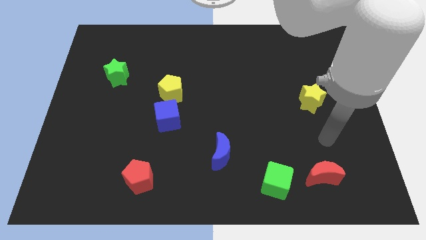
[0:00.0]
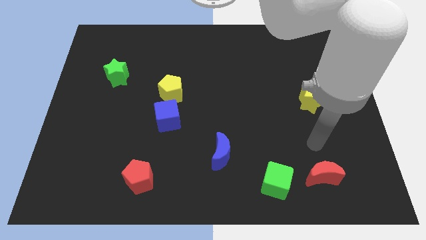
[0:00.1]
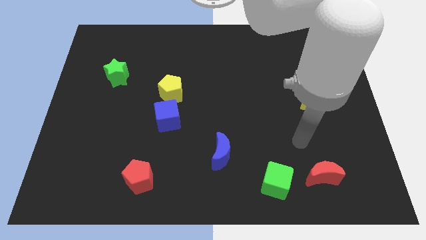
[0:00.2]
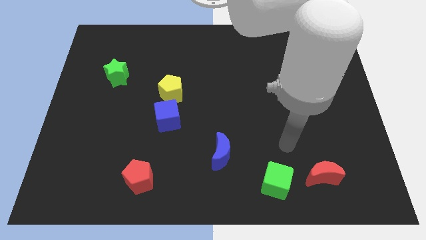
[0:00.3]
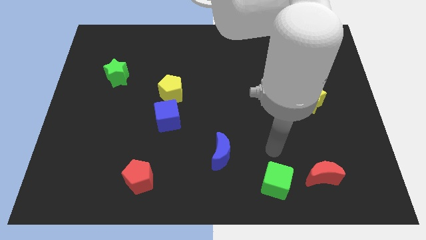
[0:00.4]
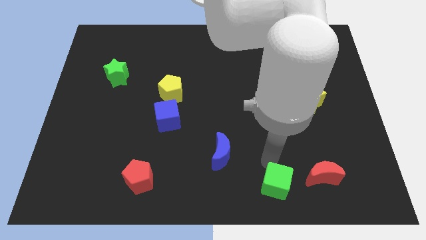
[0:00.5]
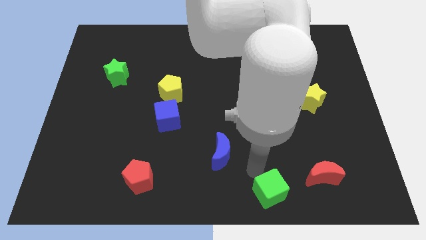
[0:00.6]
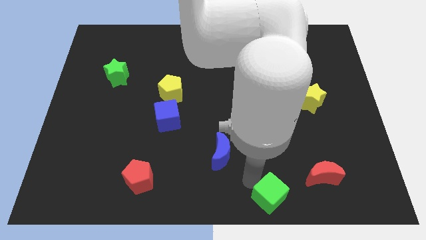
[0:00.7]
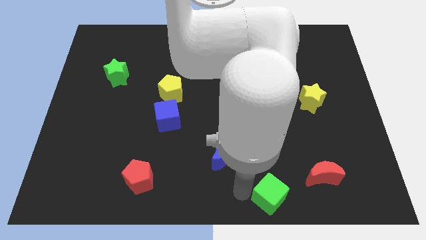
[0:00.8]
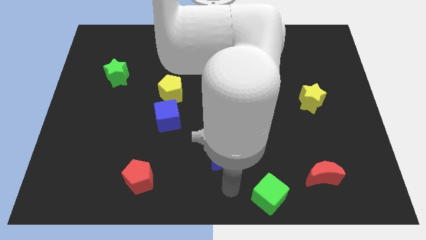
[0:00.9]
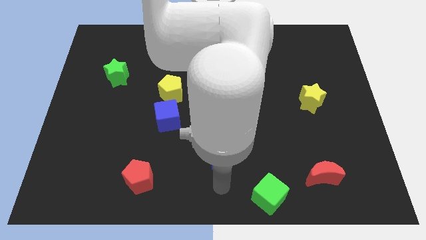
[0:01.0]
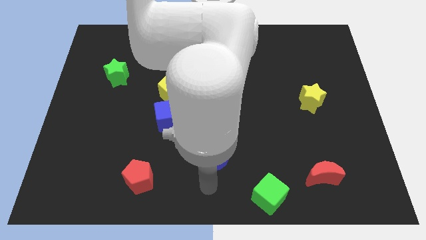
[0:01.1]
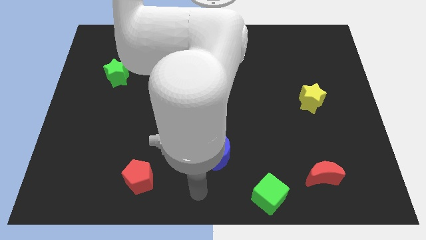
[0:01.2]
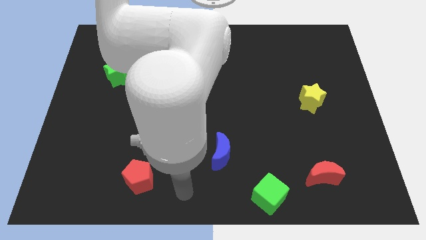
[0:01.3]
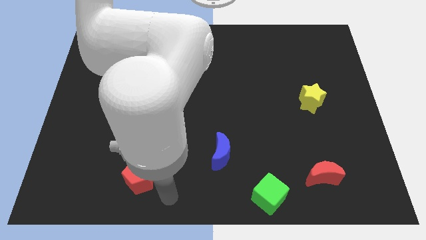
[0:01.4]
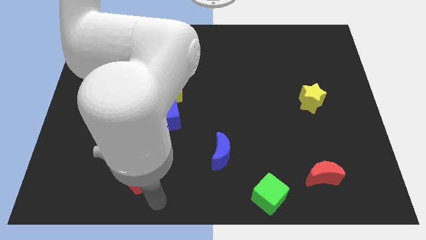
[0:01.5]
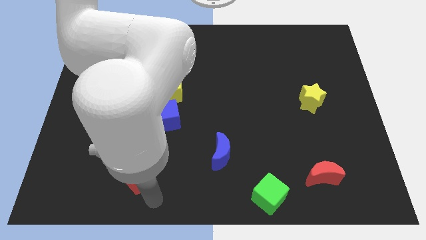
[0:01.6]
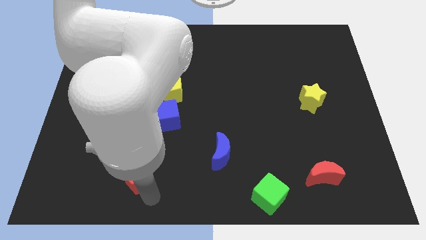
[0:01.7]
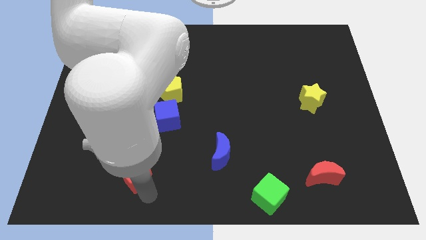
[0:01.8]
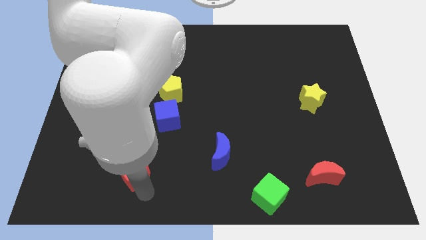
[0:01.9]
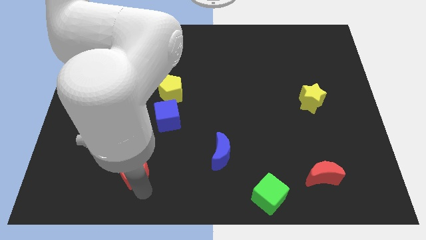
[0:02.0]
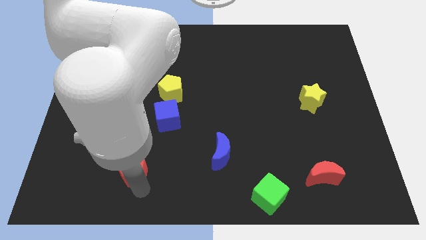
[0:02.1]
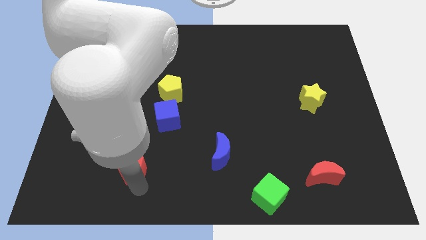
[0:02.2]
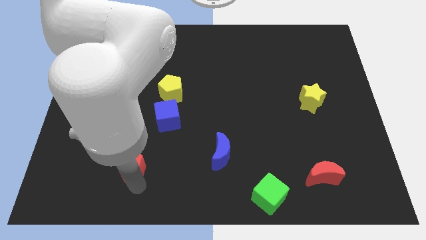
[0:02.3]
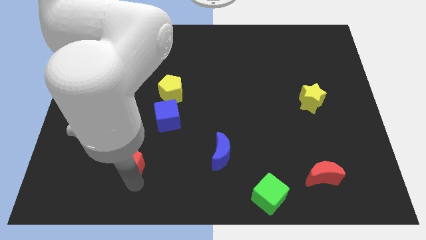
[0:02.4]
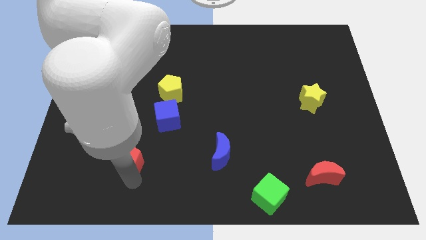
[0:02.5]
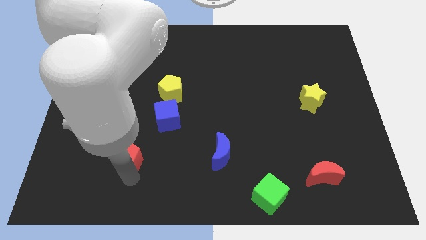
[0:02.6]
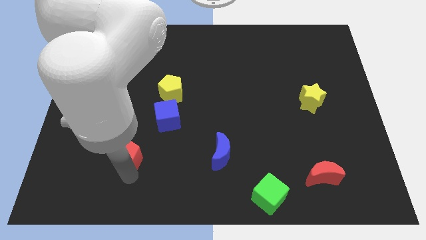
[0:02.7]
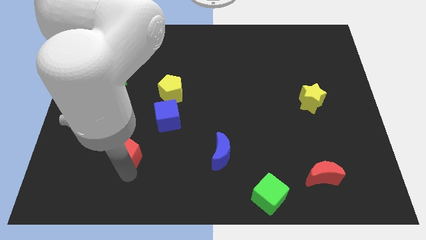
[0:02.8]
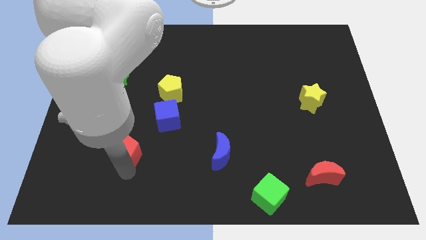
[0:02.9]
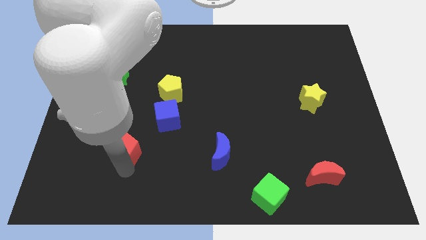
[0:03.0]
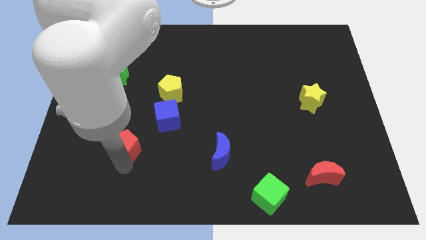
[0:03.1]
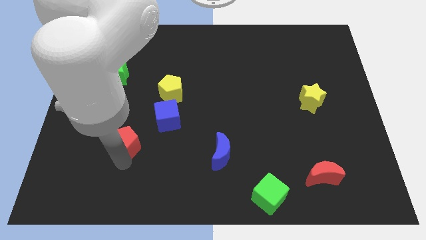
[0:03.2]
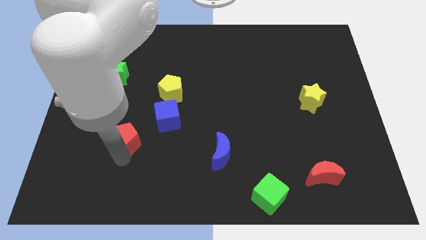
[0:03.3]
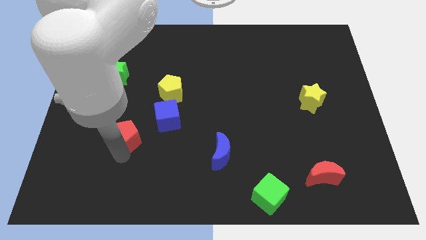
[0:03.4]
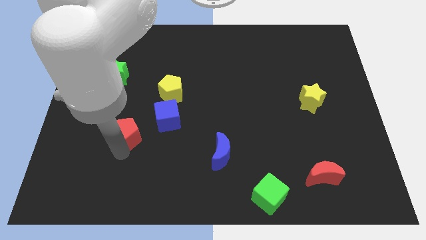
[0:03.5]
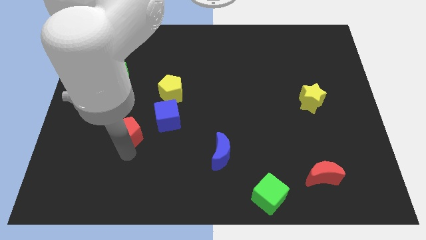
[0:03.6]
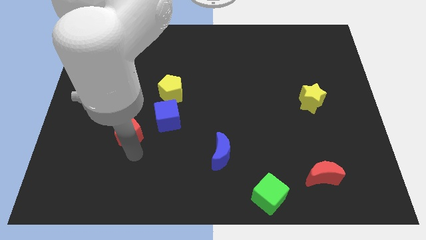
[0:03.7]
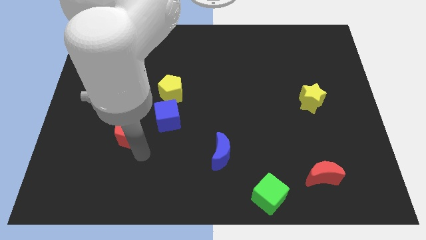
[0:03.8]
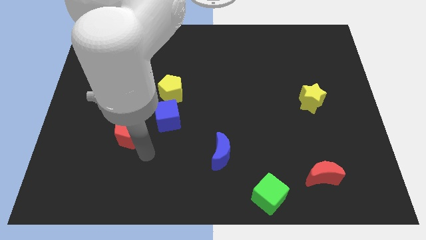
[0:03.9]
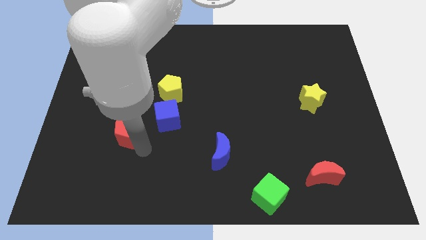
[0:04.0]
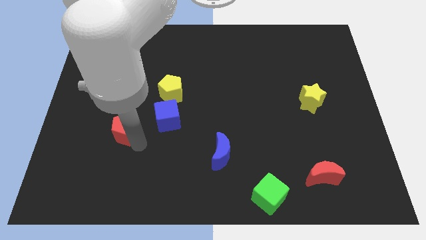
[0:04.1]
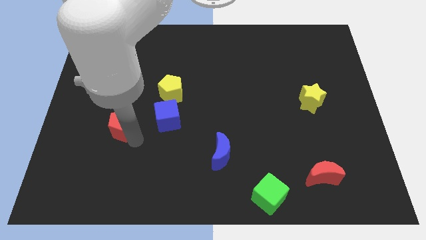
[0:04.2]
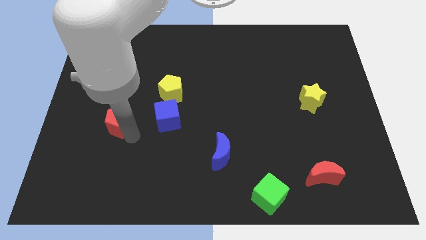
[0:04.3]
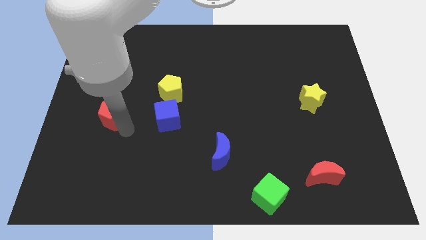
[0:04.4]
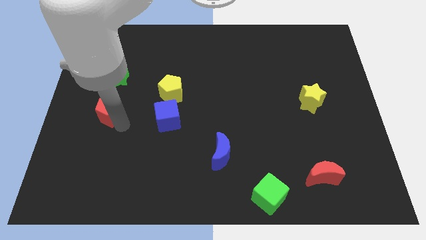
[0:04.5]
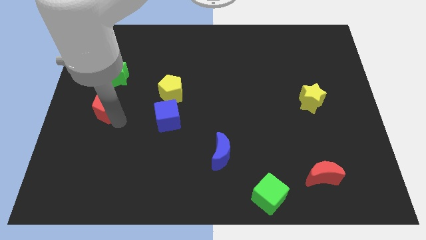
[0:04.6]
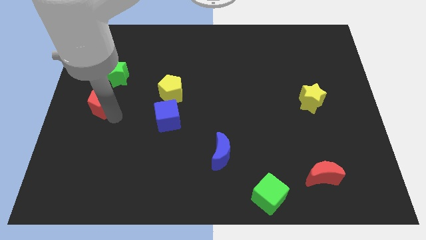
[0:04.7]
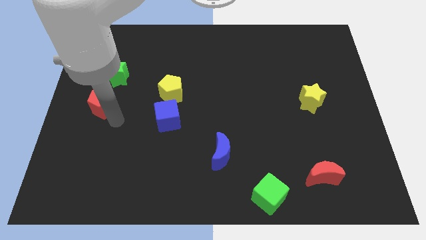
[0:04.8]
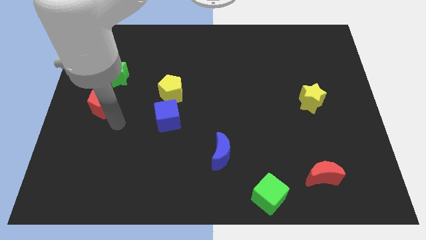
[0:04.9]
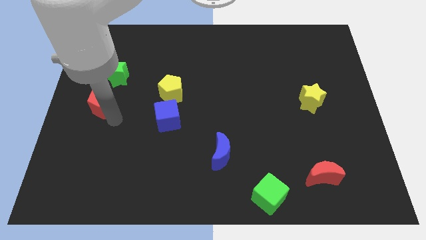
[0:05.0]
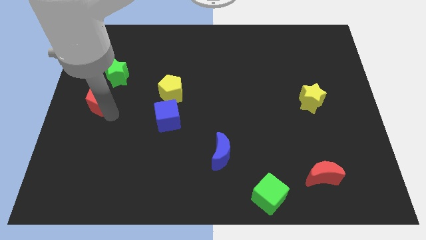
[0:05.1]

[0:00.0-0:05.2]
move the red pentagon to the bottom left side of the green star
